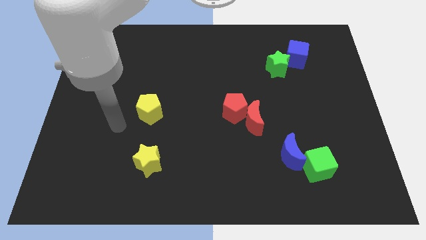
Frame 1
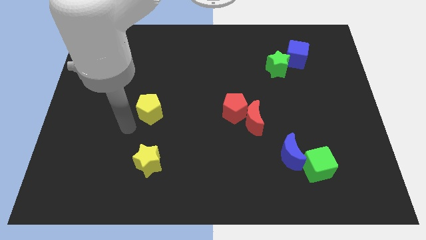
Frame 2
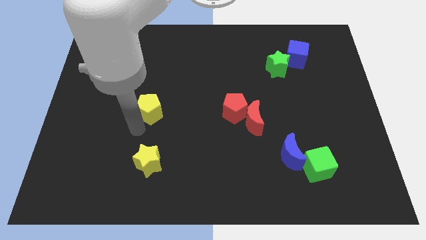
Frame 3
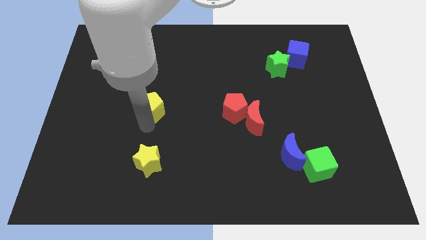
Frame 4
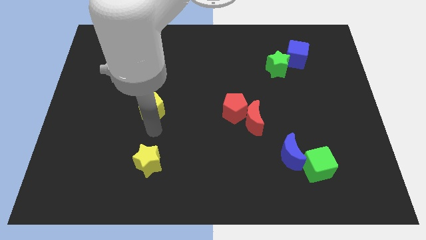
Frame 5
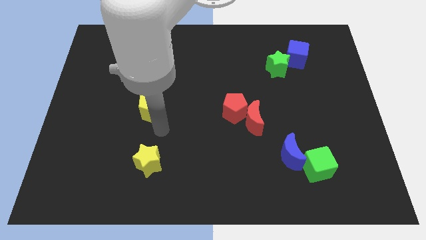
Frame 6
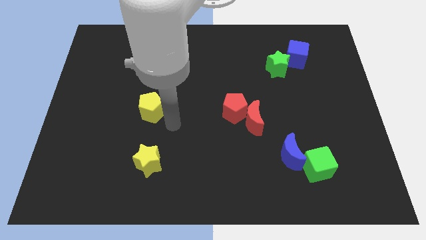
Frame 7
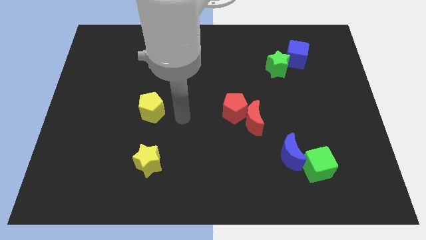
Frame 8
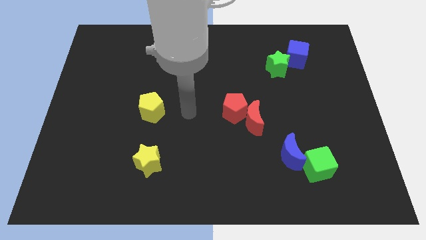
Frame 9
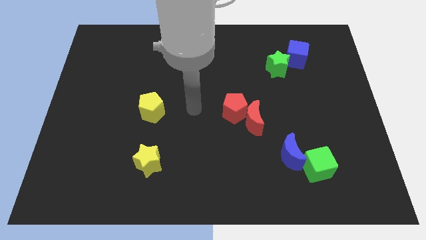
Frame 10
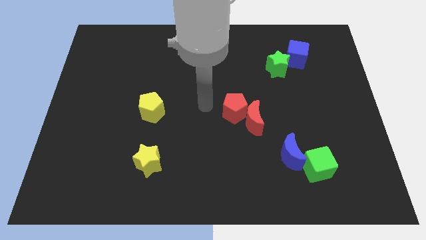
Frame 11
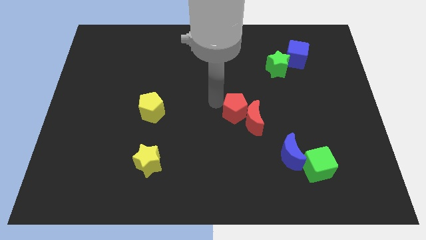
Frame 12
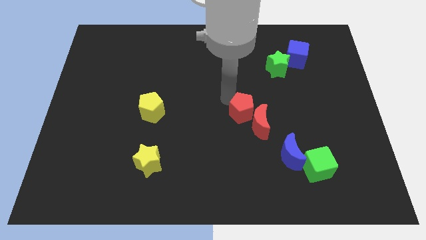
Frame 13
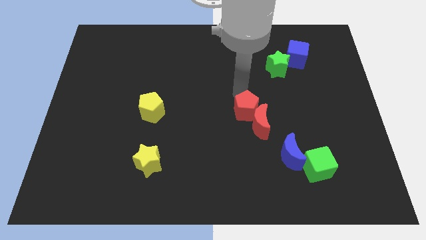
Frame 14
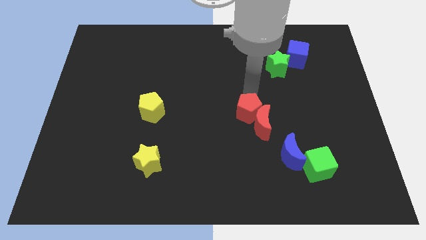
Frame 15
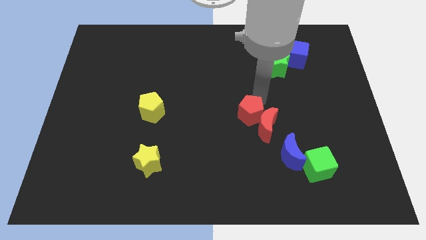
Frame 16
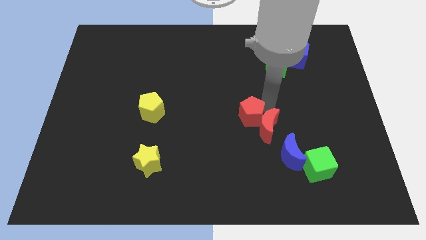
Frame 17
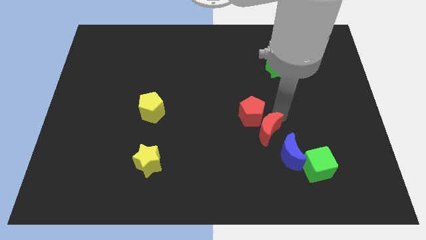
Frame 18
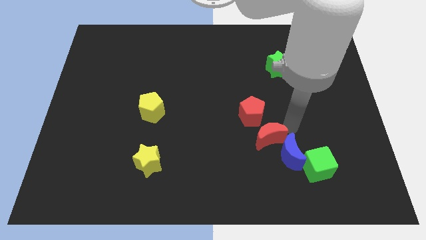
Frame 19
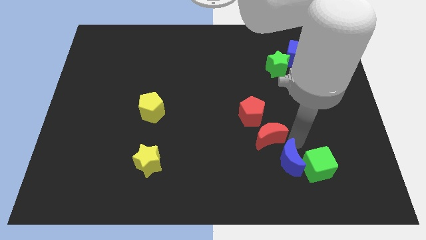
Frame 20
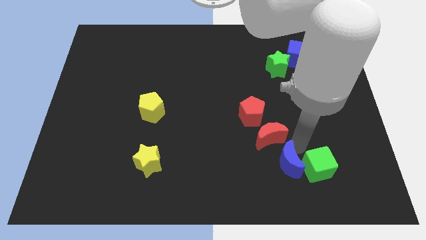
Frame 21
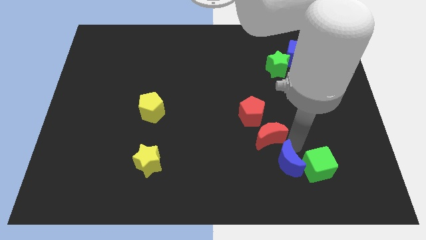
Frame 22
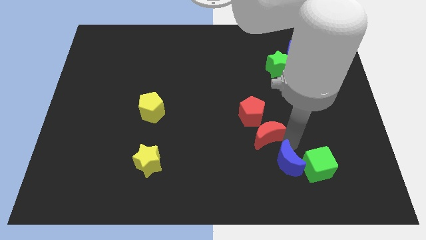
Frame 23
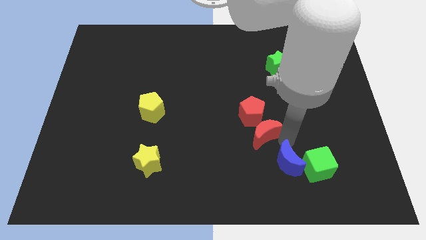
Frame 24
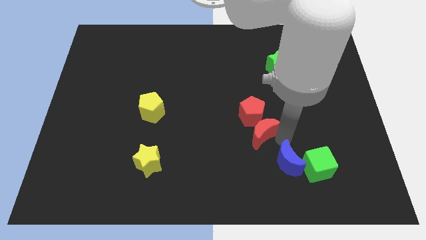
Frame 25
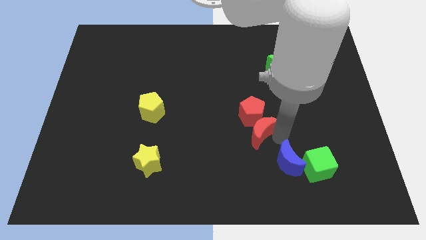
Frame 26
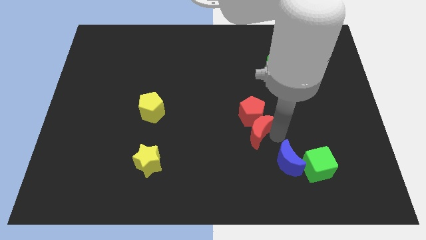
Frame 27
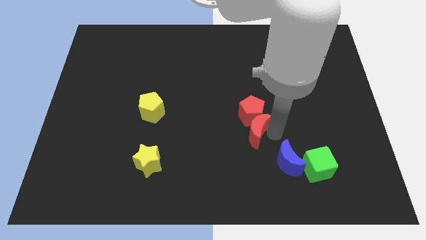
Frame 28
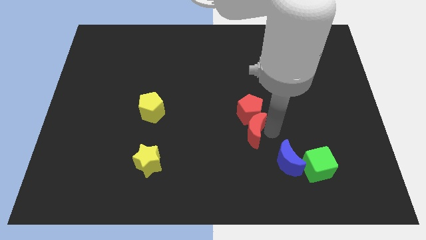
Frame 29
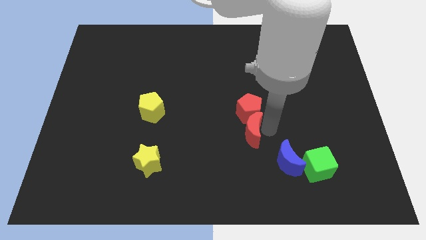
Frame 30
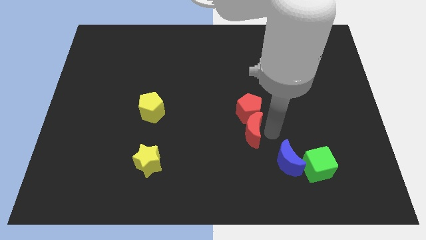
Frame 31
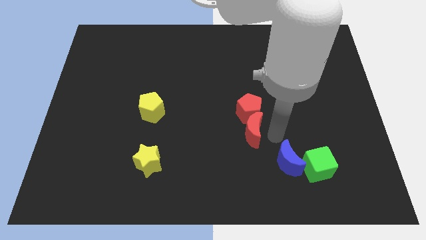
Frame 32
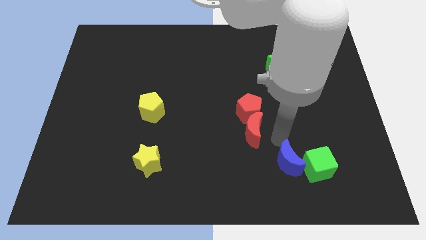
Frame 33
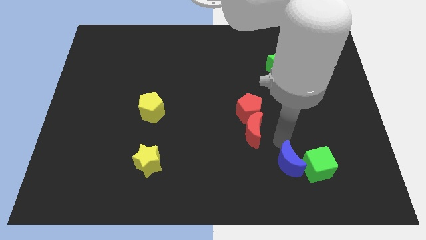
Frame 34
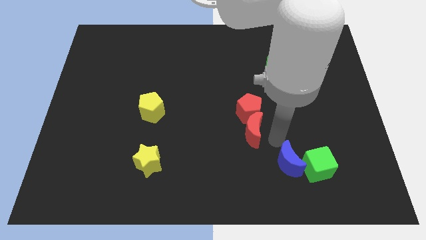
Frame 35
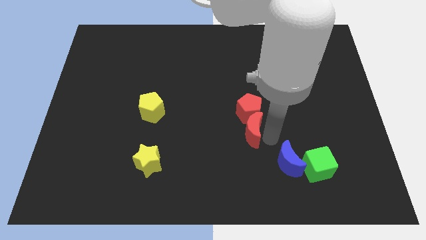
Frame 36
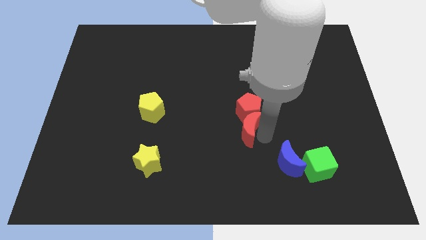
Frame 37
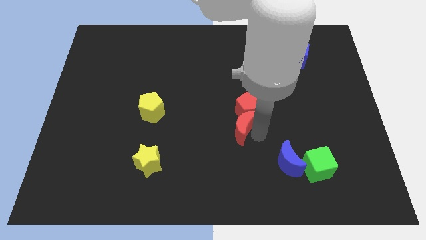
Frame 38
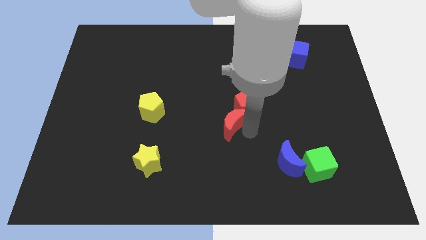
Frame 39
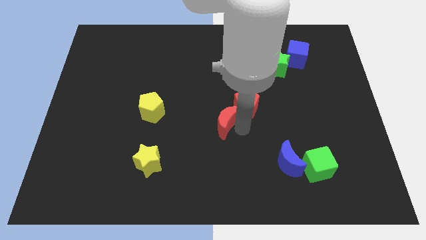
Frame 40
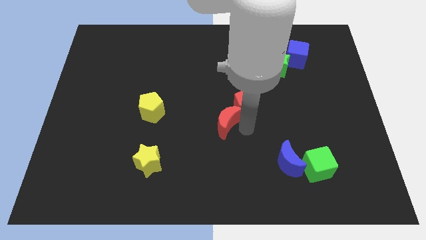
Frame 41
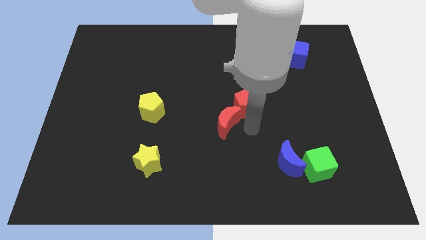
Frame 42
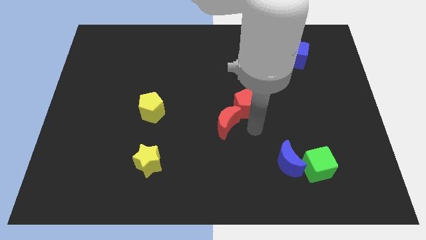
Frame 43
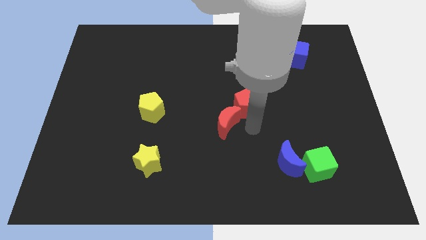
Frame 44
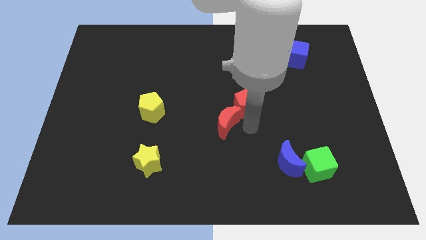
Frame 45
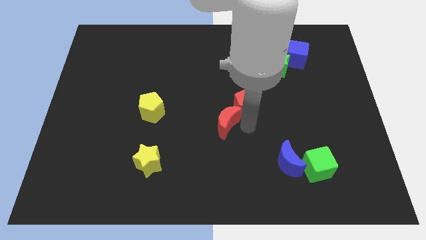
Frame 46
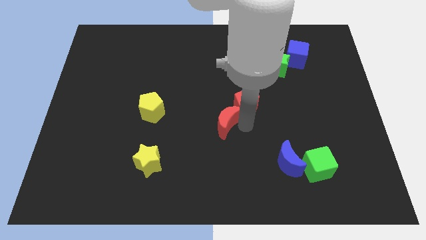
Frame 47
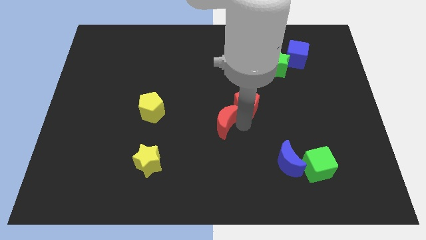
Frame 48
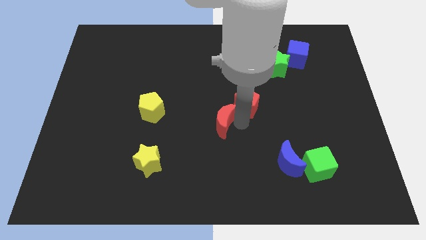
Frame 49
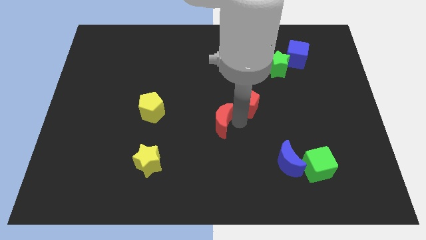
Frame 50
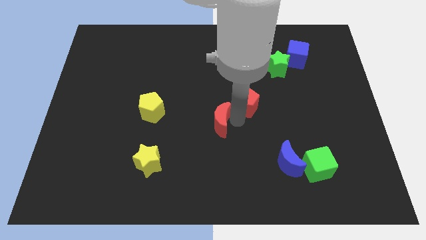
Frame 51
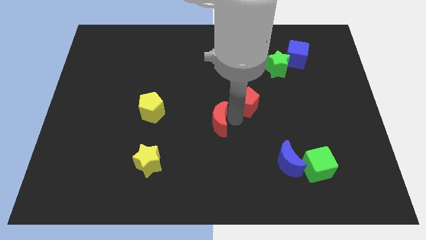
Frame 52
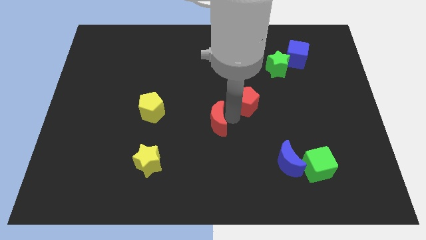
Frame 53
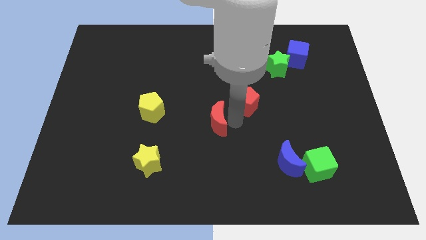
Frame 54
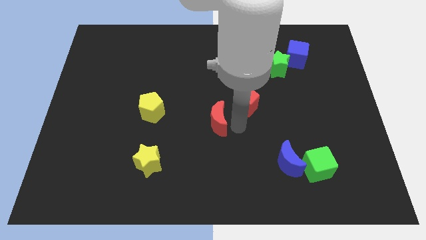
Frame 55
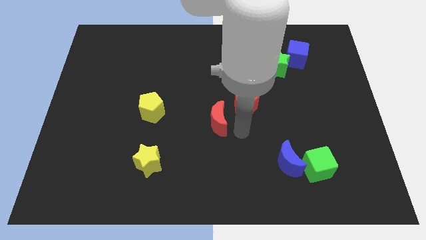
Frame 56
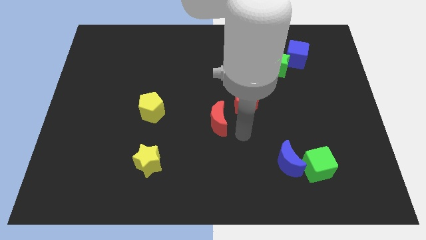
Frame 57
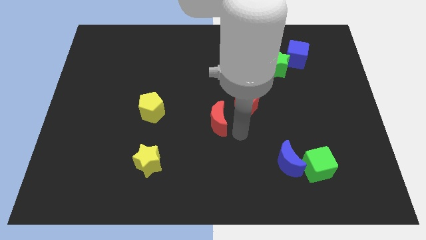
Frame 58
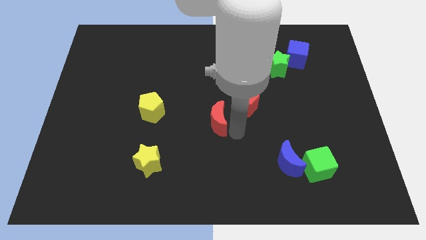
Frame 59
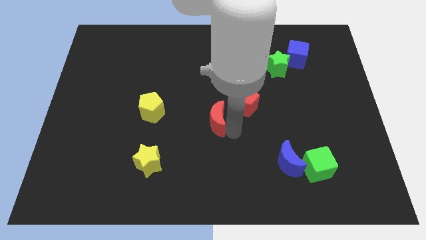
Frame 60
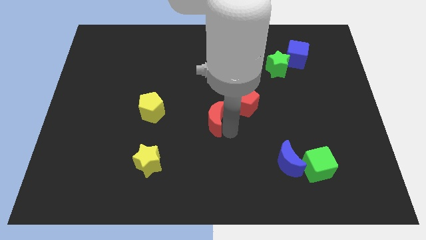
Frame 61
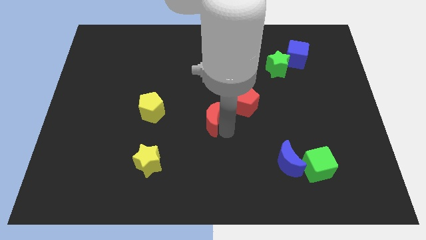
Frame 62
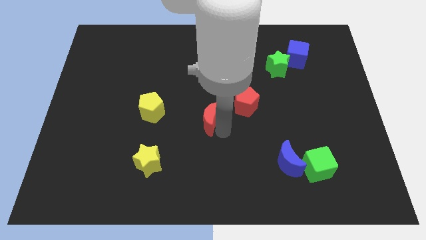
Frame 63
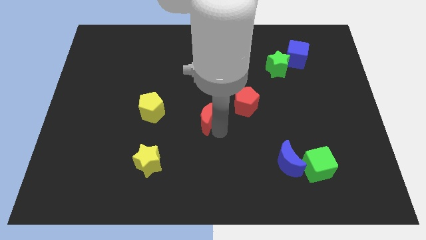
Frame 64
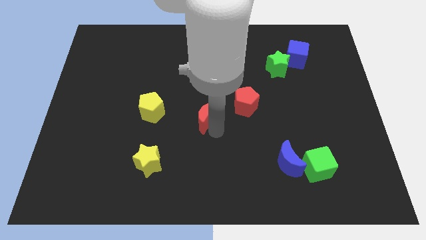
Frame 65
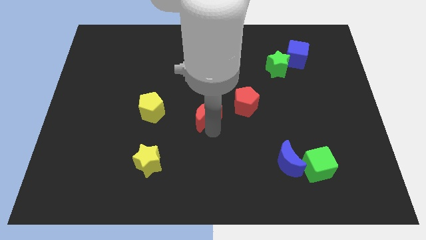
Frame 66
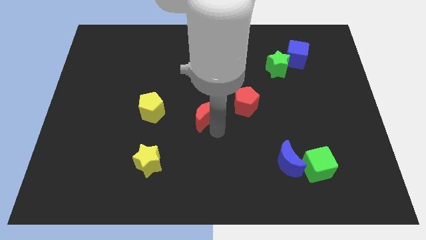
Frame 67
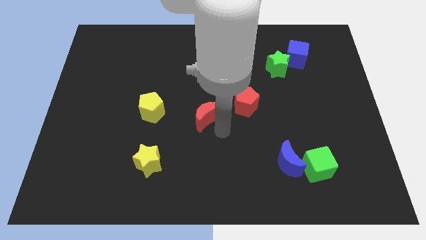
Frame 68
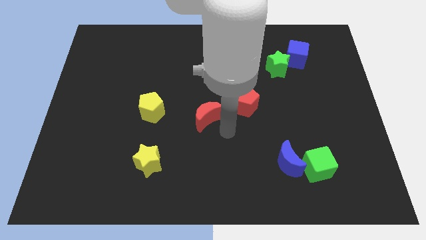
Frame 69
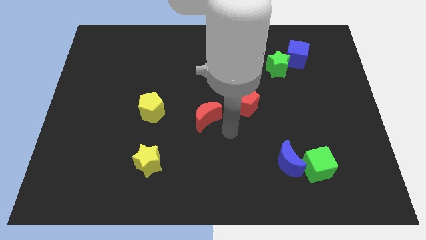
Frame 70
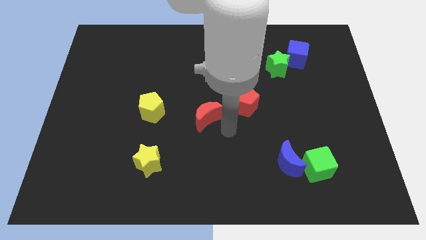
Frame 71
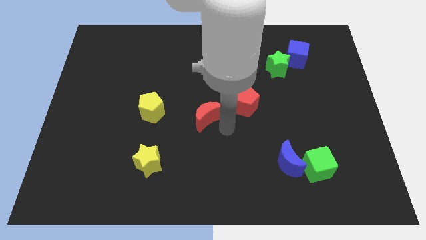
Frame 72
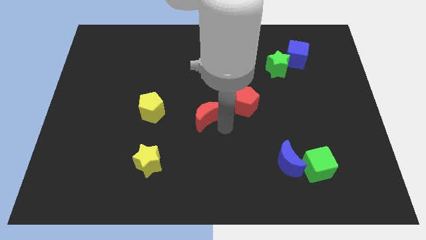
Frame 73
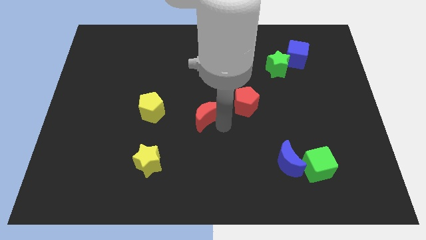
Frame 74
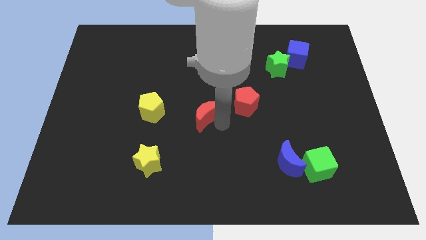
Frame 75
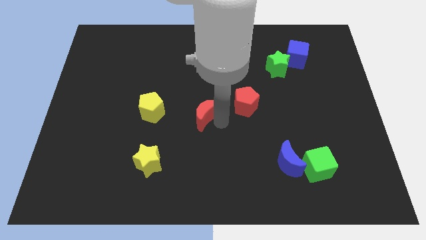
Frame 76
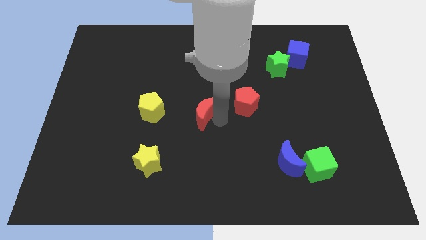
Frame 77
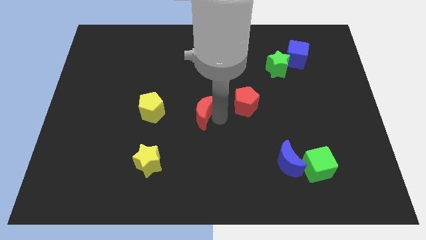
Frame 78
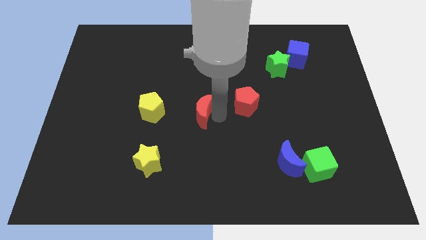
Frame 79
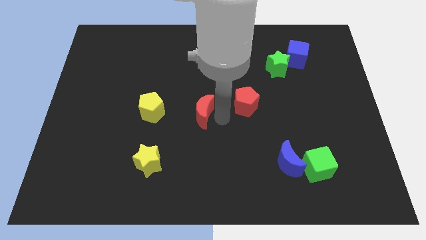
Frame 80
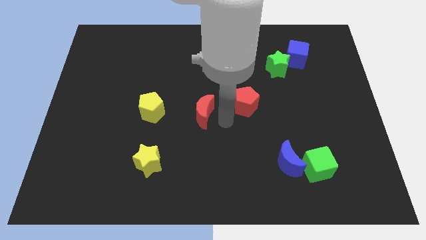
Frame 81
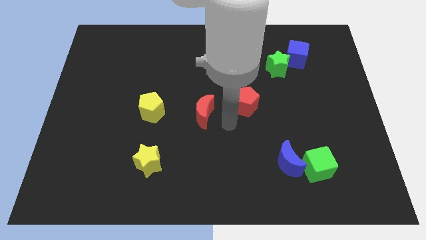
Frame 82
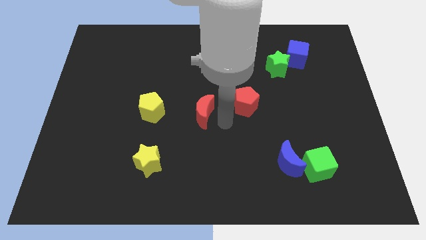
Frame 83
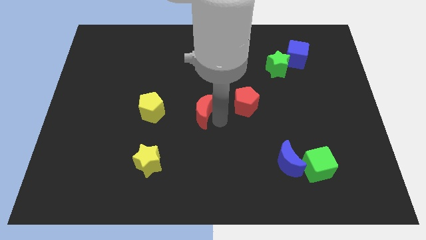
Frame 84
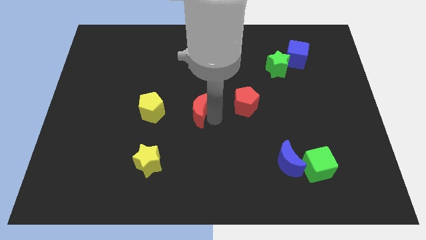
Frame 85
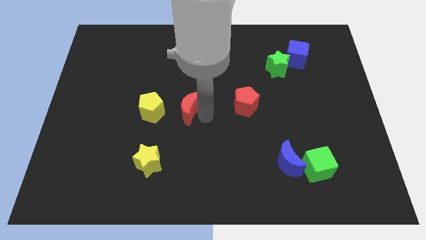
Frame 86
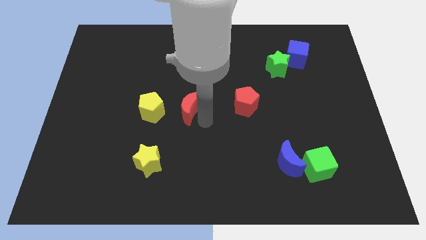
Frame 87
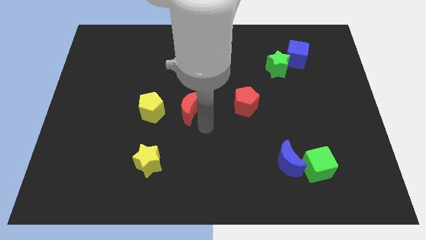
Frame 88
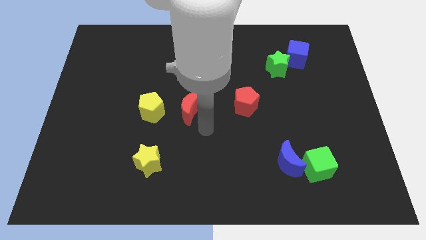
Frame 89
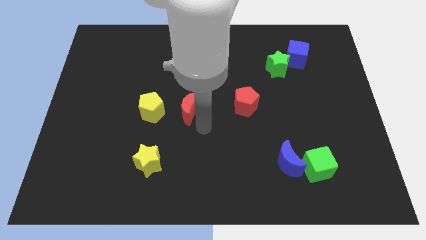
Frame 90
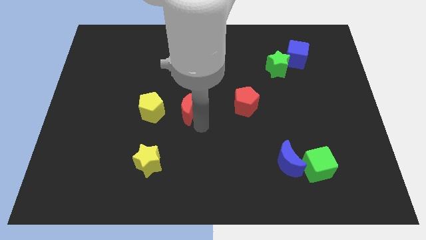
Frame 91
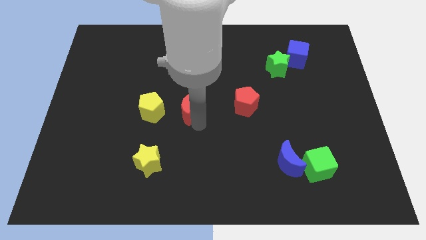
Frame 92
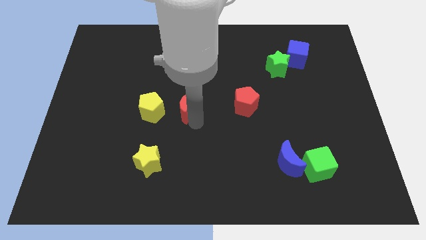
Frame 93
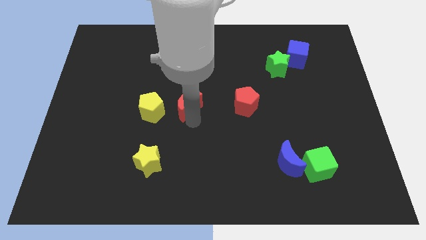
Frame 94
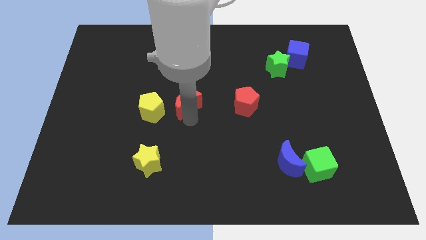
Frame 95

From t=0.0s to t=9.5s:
put the red moon diagonally up and to the right of the yellow pentagon
